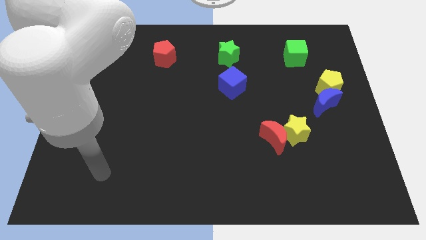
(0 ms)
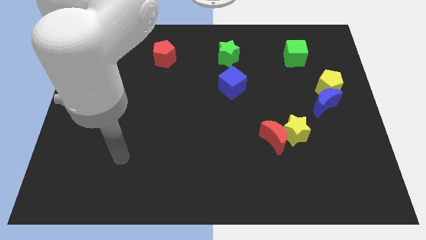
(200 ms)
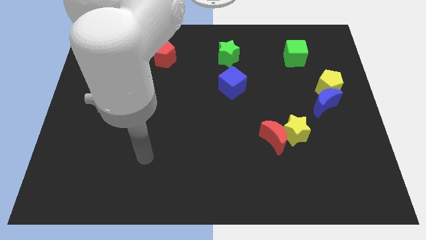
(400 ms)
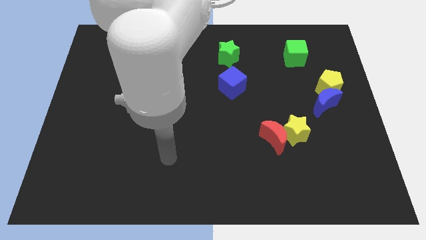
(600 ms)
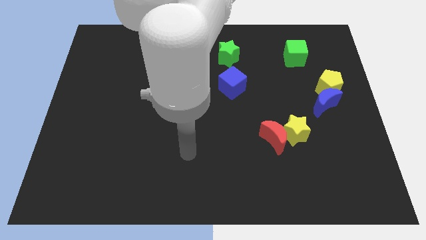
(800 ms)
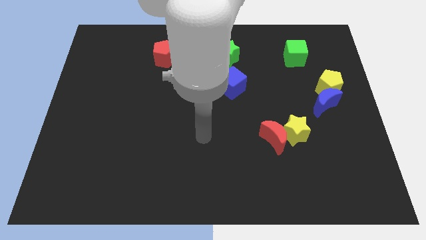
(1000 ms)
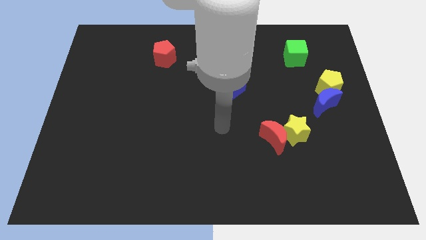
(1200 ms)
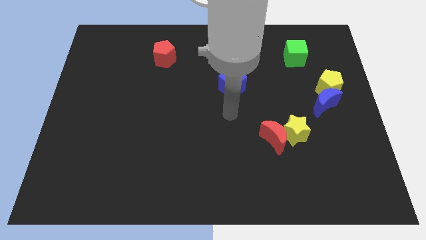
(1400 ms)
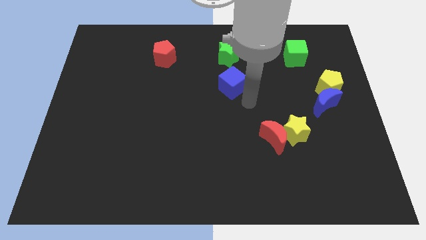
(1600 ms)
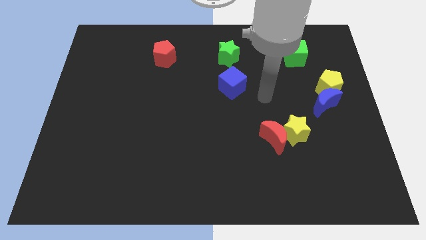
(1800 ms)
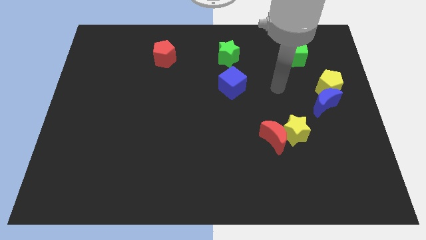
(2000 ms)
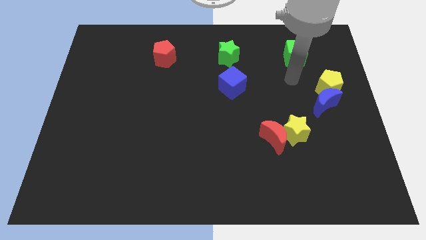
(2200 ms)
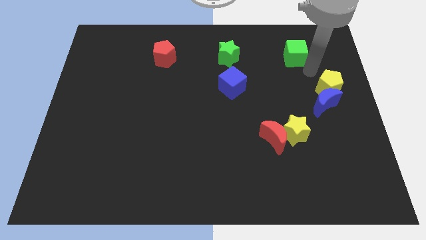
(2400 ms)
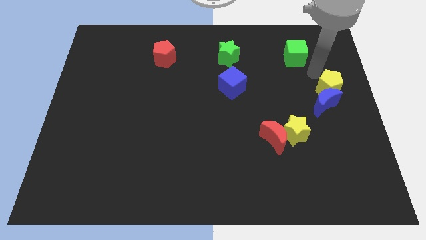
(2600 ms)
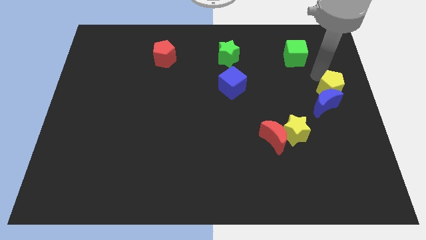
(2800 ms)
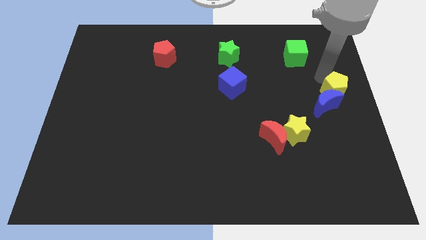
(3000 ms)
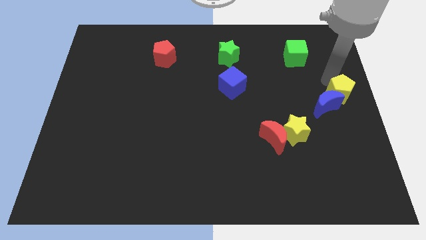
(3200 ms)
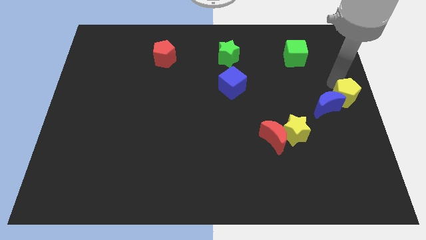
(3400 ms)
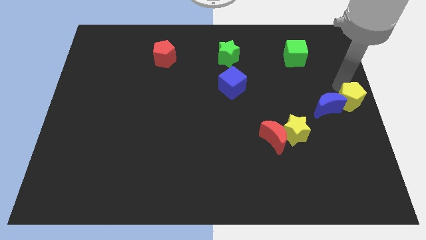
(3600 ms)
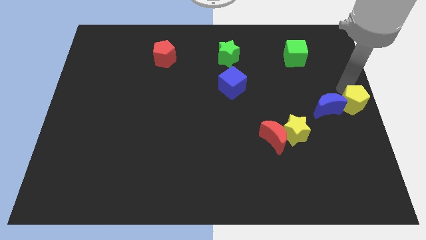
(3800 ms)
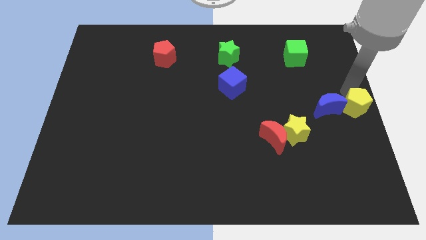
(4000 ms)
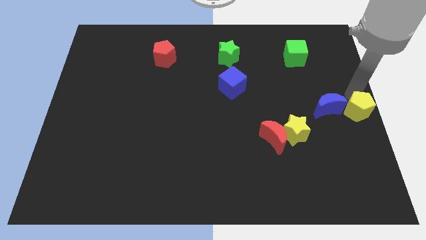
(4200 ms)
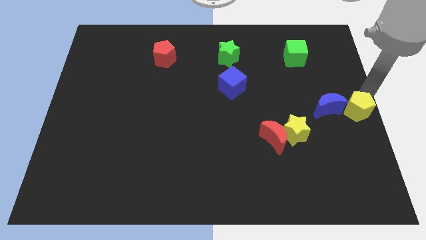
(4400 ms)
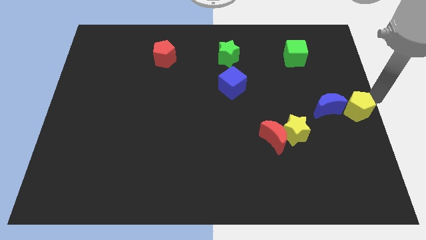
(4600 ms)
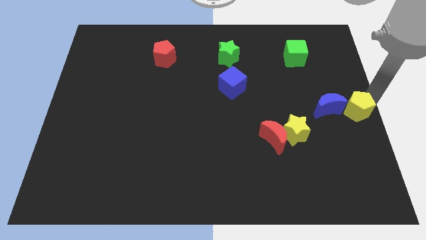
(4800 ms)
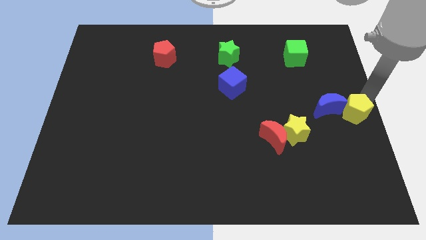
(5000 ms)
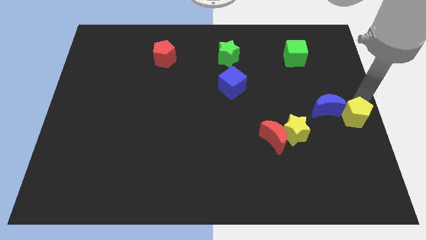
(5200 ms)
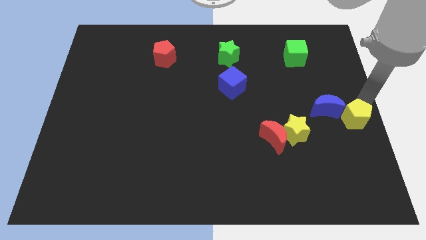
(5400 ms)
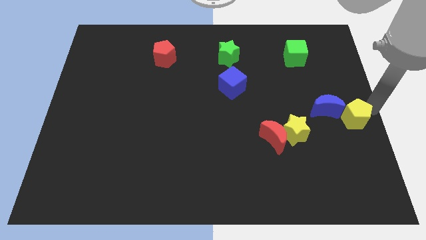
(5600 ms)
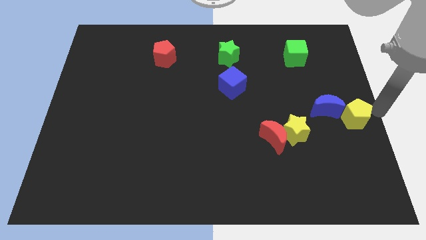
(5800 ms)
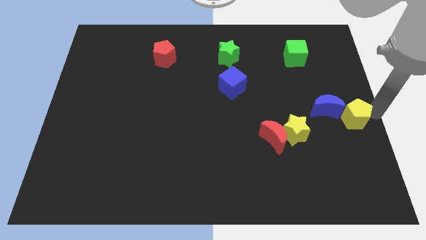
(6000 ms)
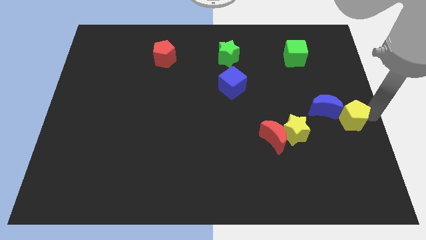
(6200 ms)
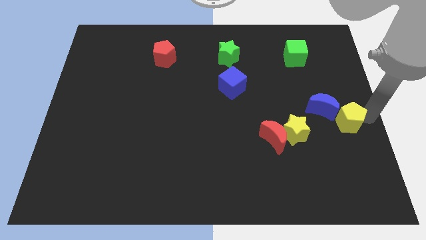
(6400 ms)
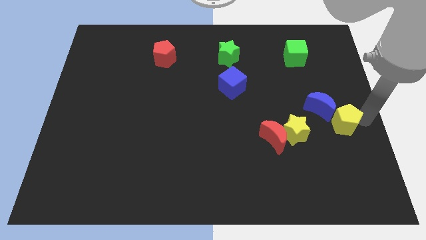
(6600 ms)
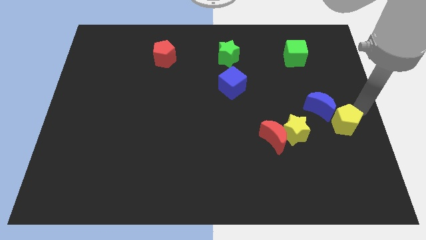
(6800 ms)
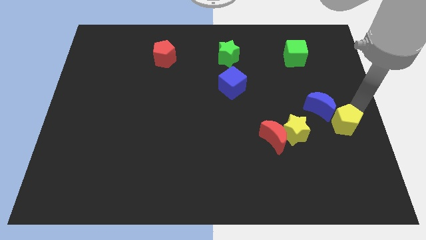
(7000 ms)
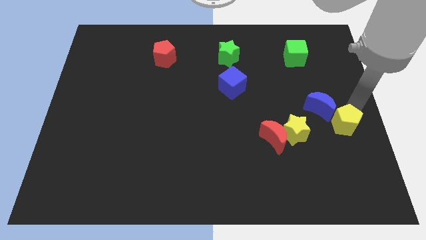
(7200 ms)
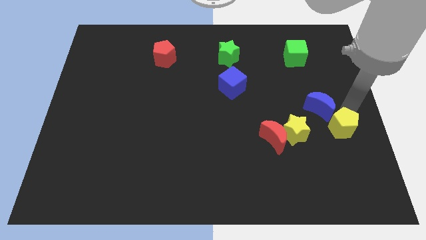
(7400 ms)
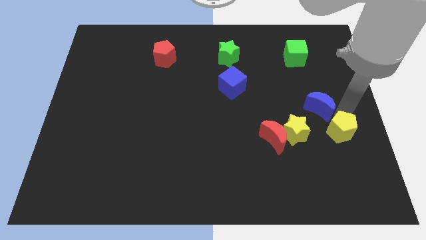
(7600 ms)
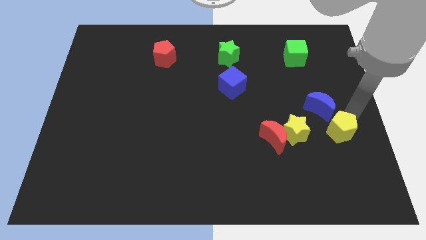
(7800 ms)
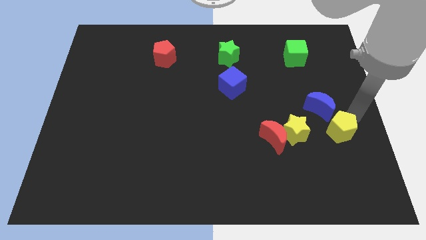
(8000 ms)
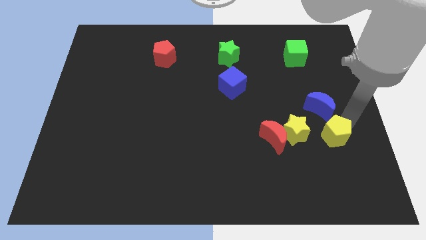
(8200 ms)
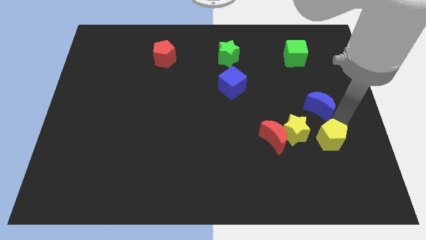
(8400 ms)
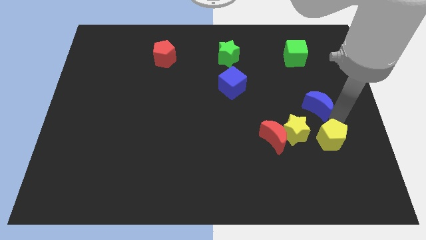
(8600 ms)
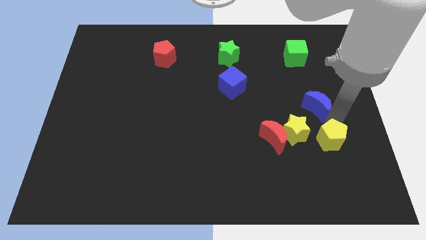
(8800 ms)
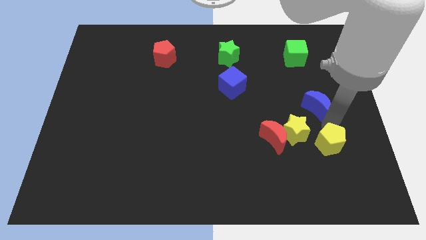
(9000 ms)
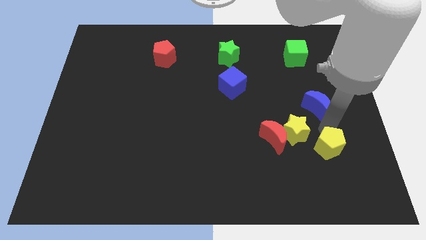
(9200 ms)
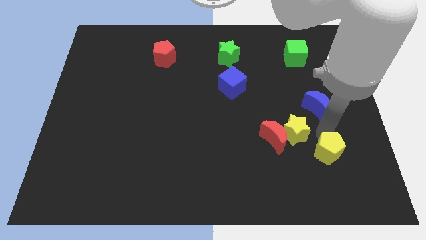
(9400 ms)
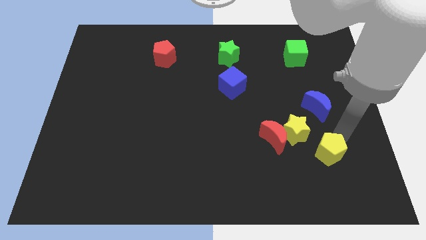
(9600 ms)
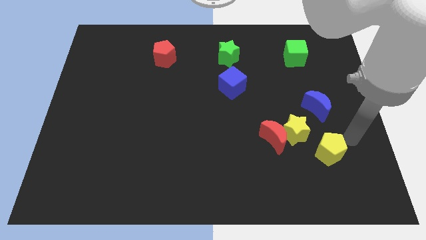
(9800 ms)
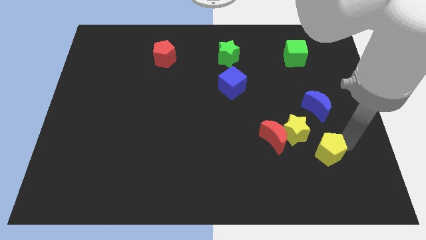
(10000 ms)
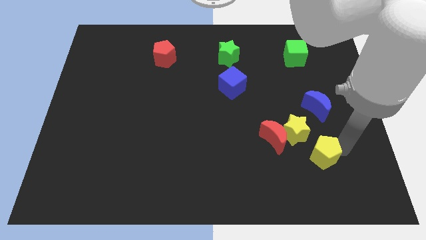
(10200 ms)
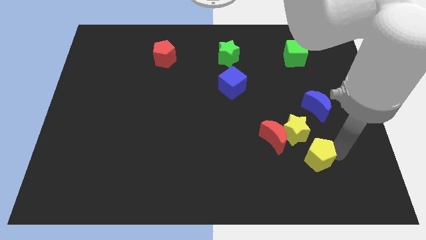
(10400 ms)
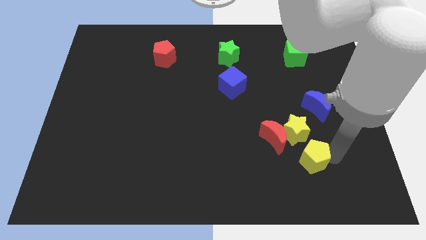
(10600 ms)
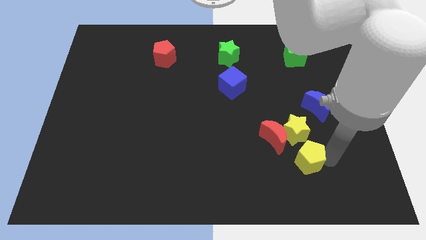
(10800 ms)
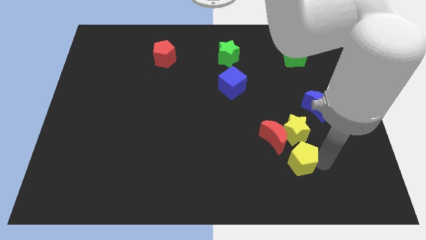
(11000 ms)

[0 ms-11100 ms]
push the yellow pentagon to the bottom side of the red moon

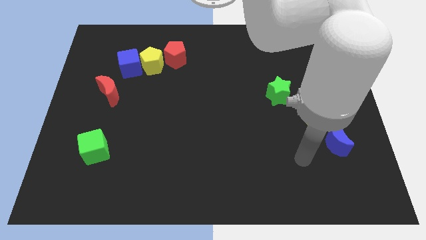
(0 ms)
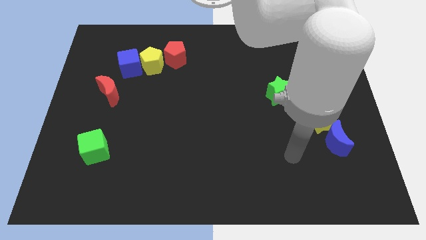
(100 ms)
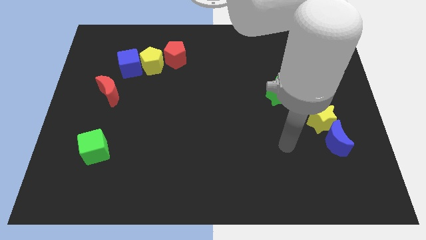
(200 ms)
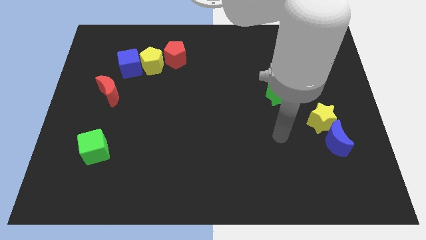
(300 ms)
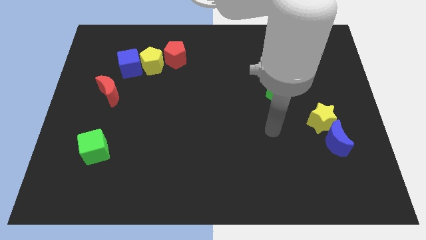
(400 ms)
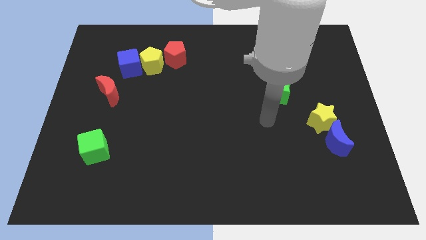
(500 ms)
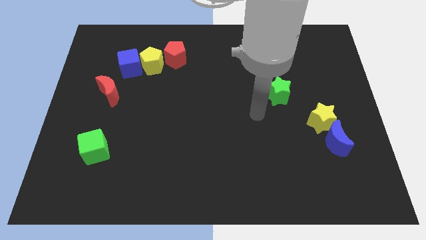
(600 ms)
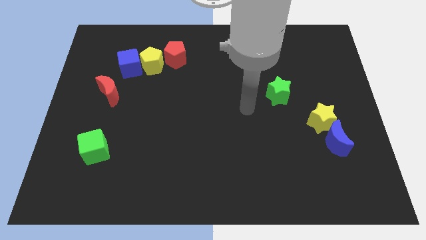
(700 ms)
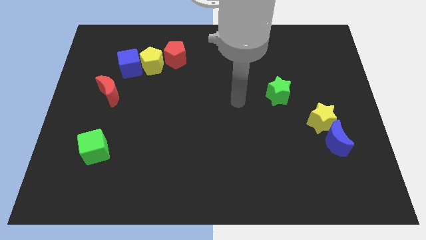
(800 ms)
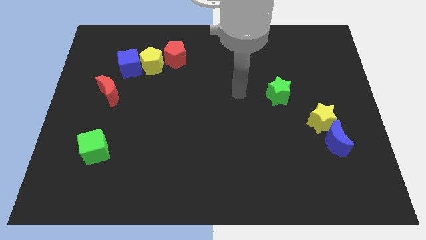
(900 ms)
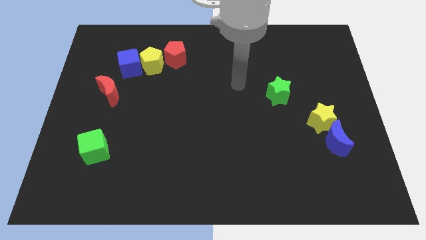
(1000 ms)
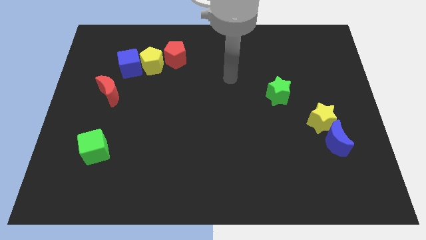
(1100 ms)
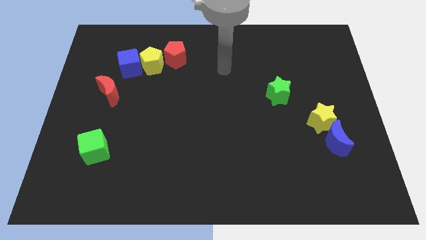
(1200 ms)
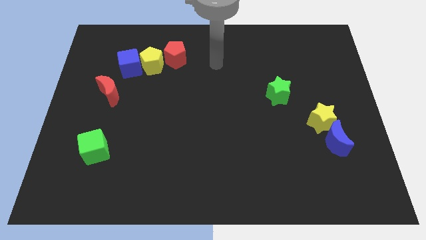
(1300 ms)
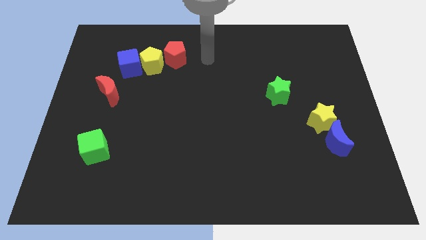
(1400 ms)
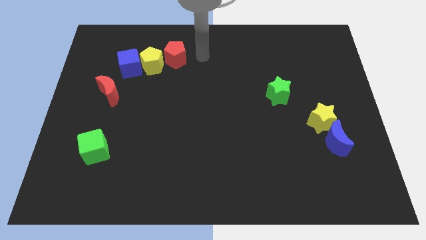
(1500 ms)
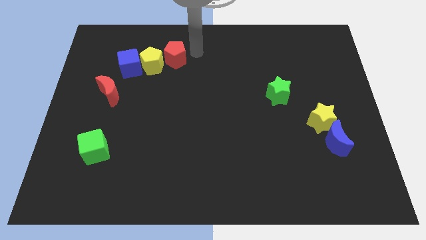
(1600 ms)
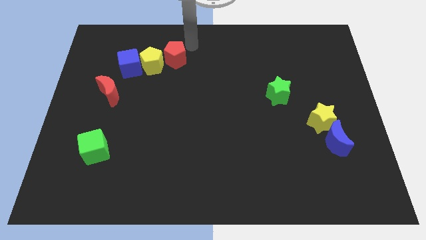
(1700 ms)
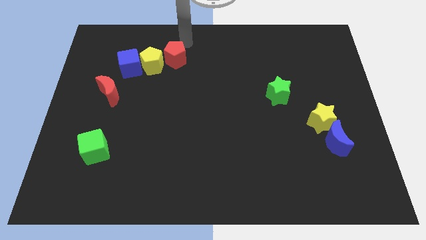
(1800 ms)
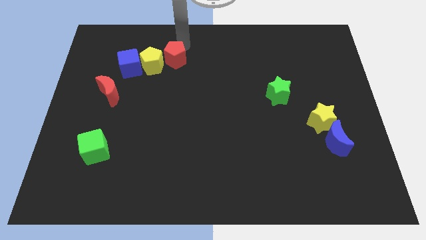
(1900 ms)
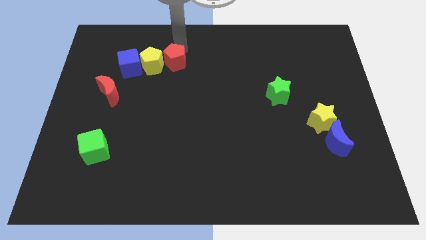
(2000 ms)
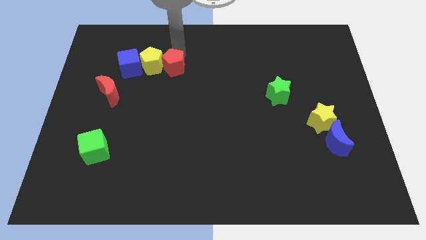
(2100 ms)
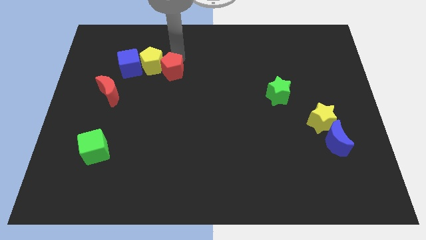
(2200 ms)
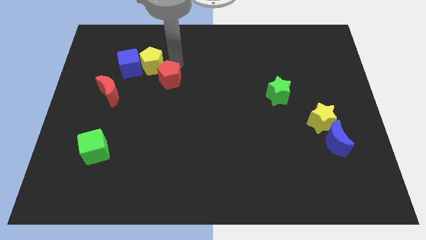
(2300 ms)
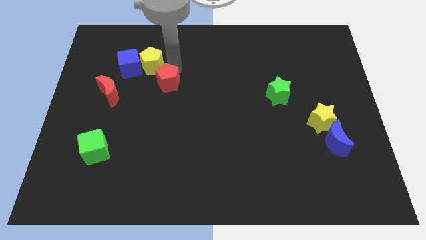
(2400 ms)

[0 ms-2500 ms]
slide the red pentagon to the right side of the red moon

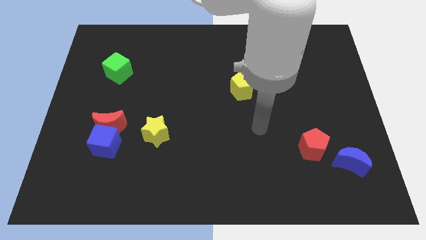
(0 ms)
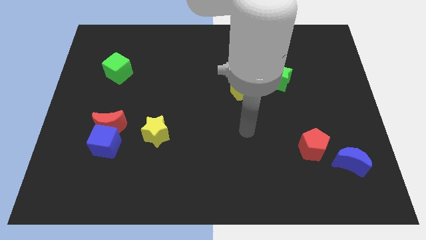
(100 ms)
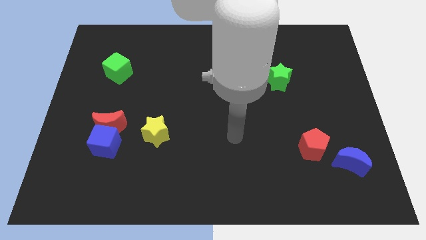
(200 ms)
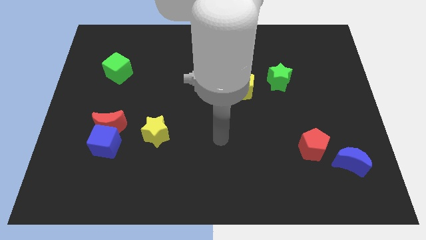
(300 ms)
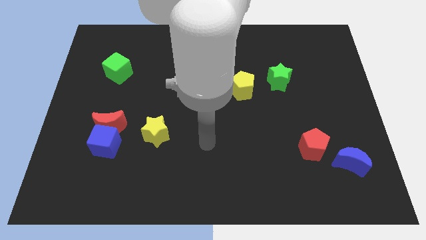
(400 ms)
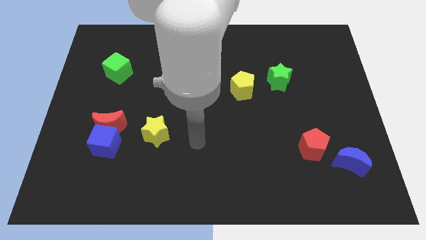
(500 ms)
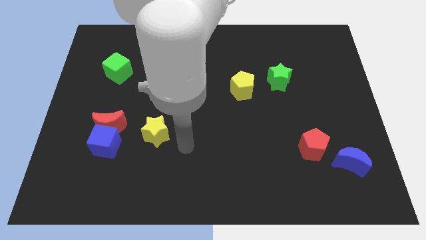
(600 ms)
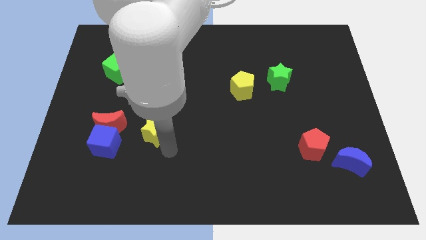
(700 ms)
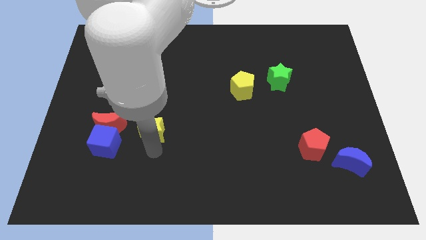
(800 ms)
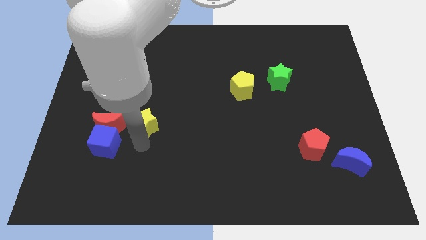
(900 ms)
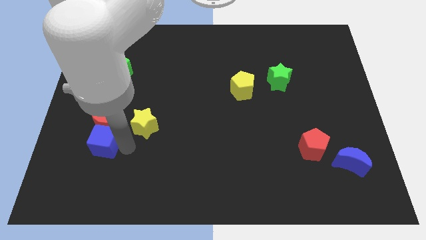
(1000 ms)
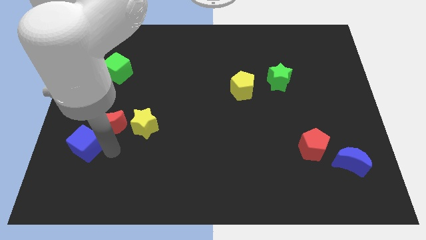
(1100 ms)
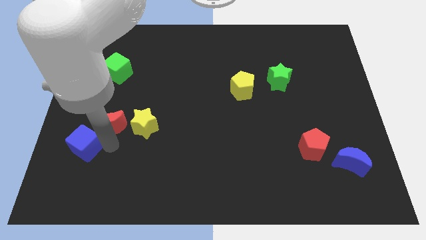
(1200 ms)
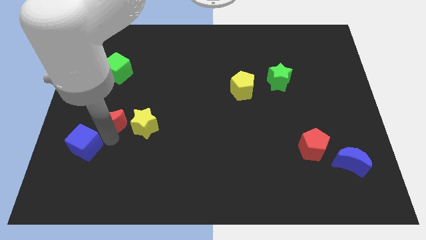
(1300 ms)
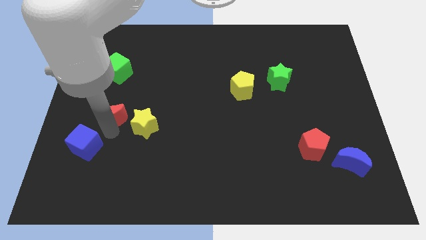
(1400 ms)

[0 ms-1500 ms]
put the red moon to the bottom side of the green cube
